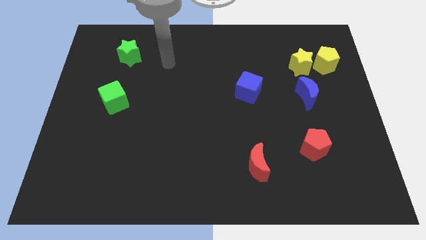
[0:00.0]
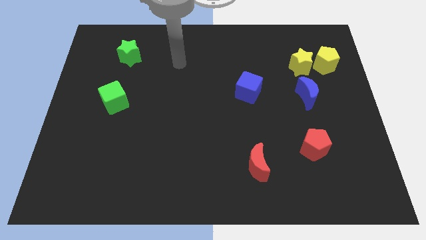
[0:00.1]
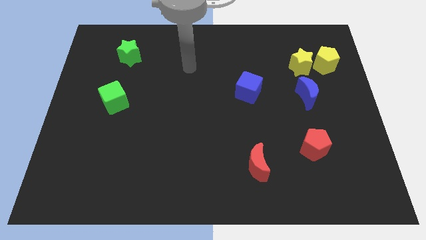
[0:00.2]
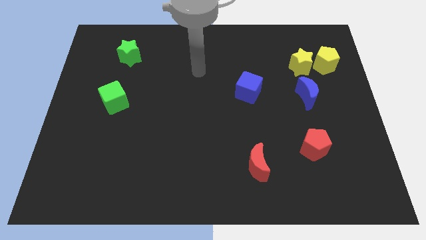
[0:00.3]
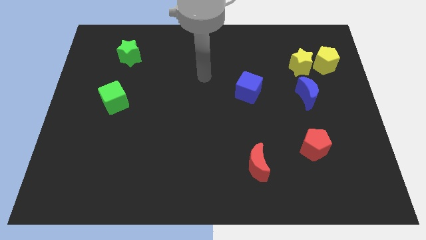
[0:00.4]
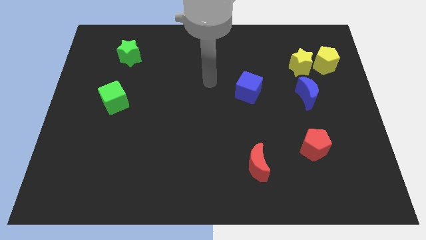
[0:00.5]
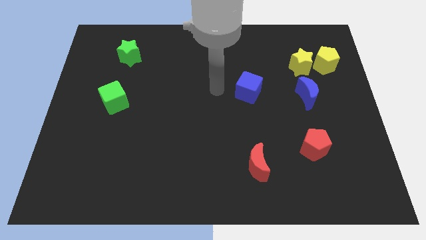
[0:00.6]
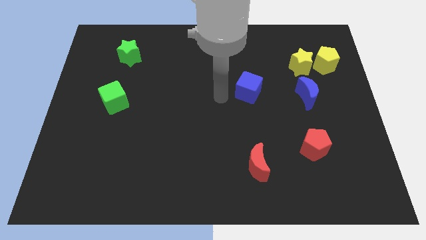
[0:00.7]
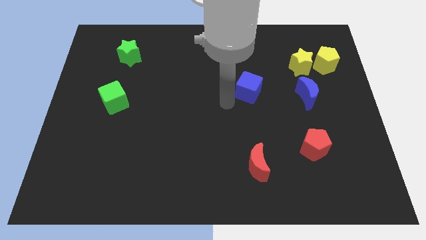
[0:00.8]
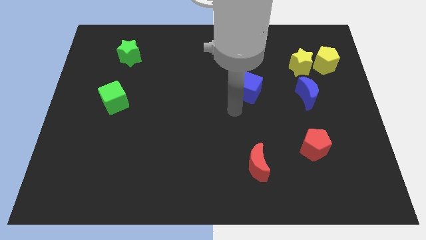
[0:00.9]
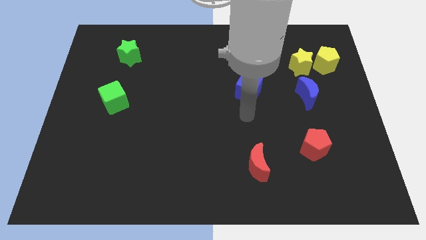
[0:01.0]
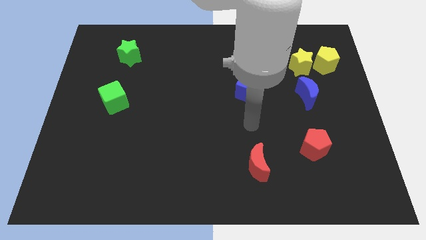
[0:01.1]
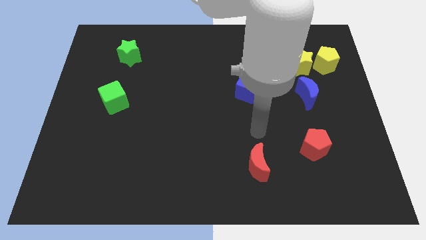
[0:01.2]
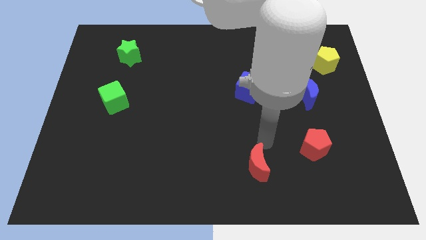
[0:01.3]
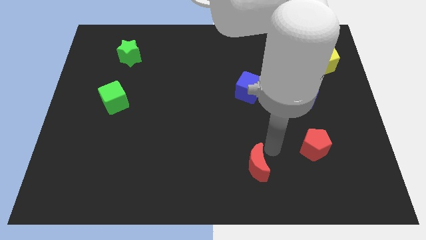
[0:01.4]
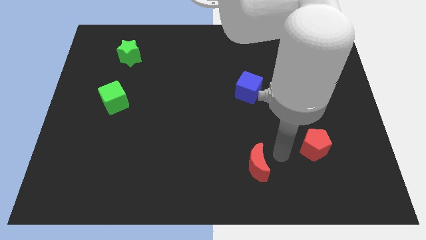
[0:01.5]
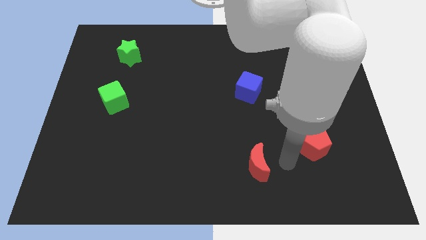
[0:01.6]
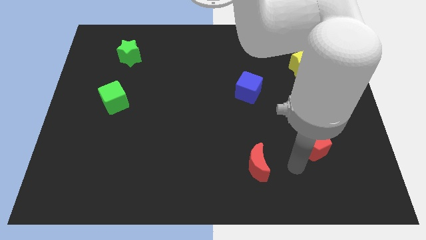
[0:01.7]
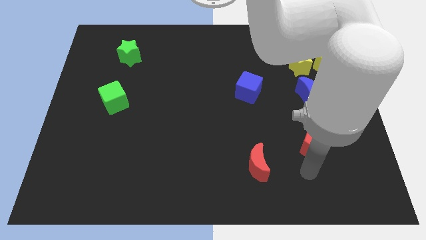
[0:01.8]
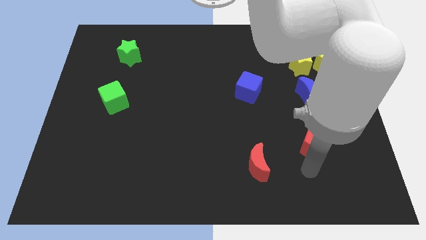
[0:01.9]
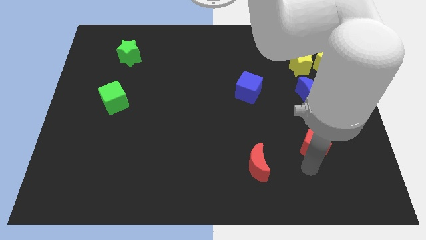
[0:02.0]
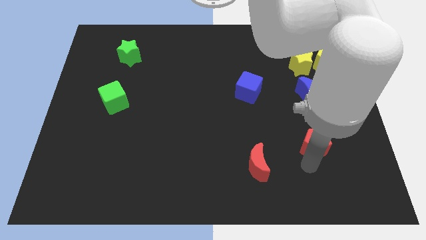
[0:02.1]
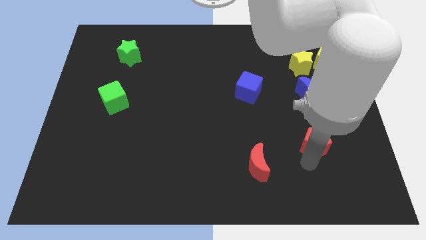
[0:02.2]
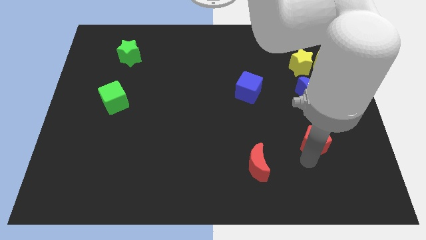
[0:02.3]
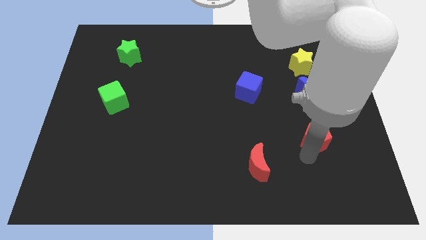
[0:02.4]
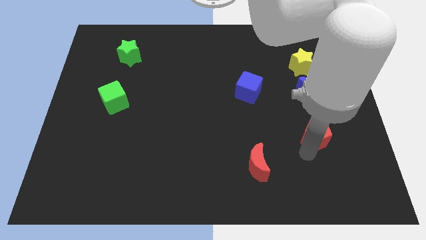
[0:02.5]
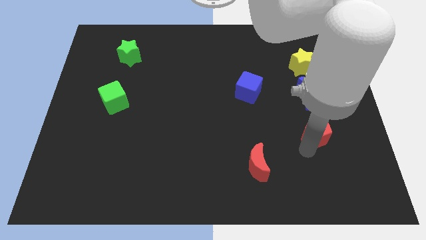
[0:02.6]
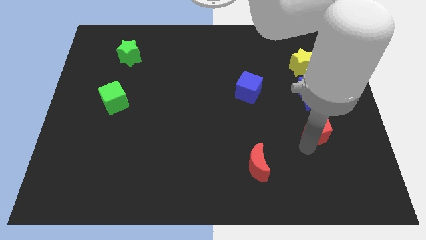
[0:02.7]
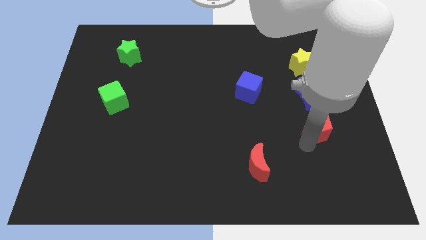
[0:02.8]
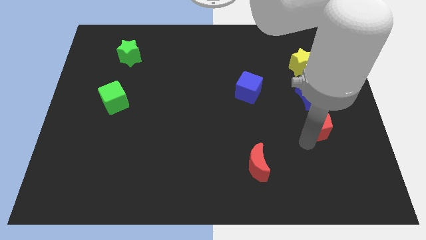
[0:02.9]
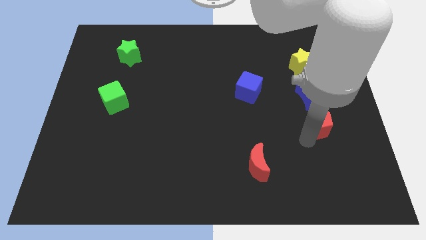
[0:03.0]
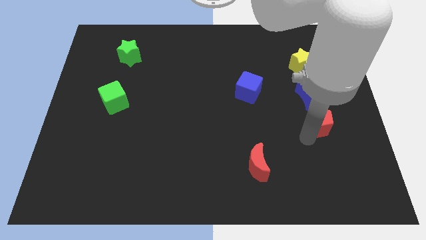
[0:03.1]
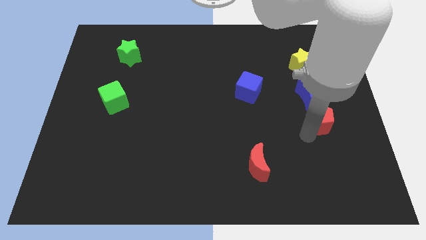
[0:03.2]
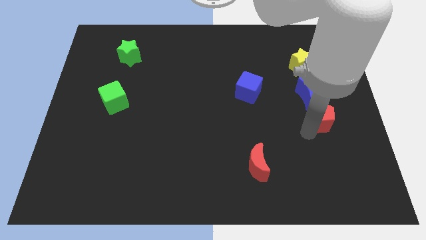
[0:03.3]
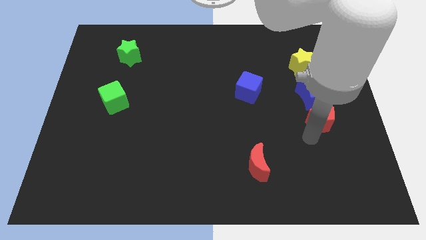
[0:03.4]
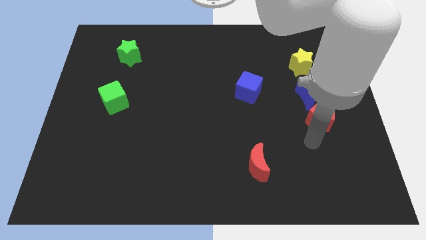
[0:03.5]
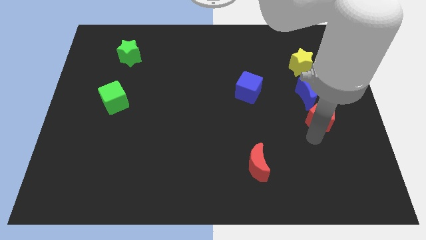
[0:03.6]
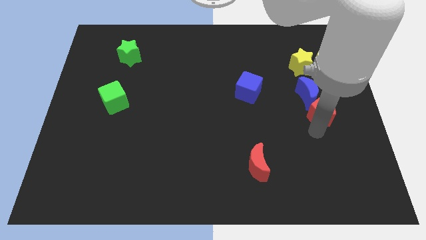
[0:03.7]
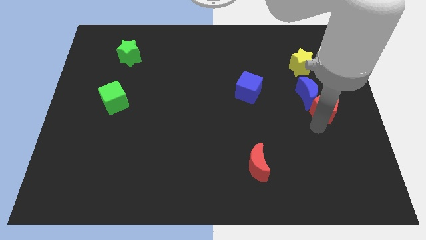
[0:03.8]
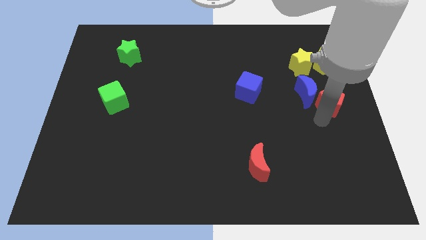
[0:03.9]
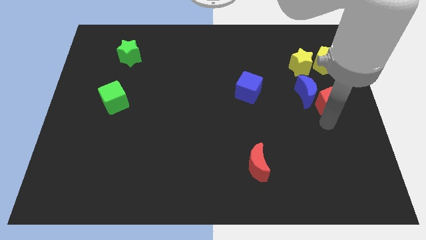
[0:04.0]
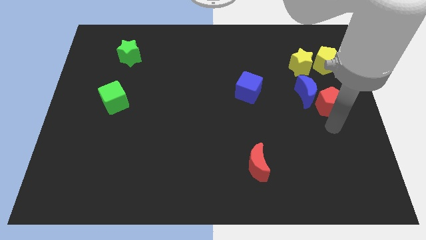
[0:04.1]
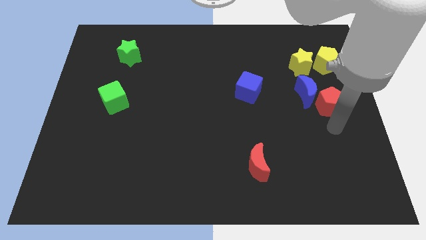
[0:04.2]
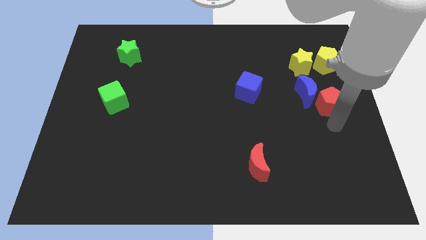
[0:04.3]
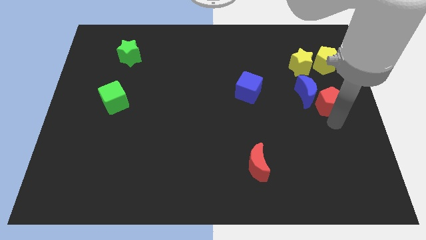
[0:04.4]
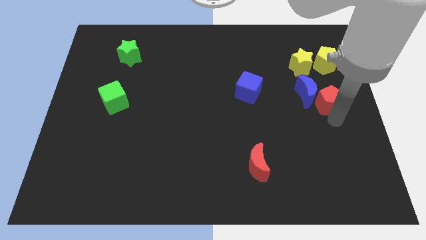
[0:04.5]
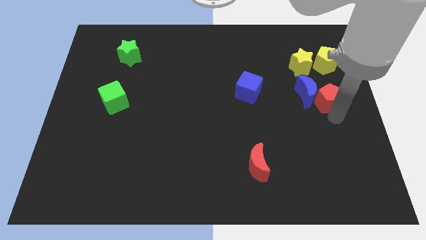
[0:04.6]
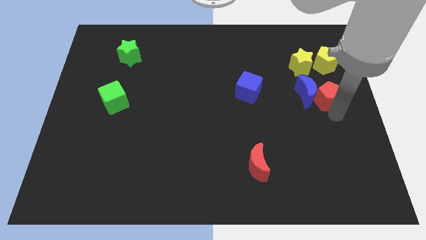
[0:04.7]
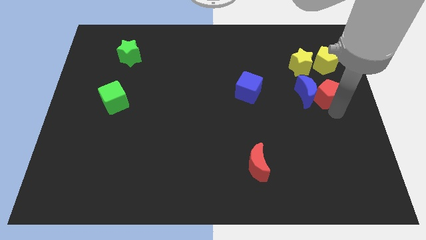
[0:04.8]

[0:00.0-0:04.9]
put the red pentagon to the bottom right of the yellow star

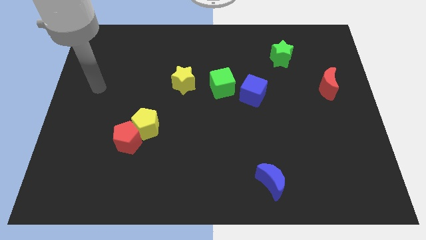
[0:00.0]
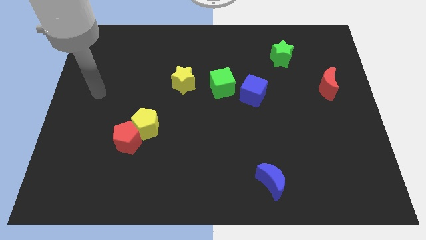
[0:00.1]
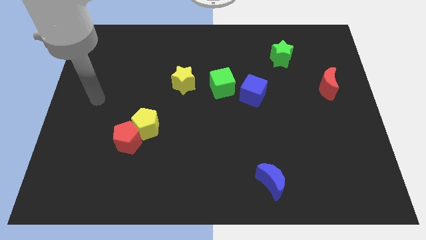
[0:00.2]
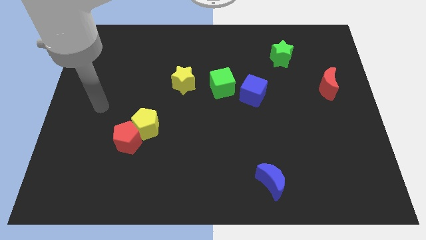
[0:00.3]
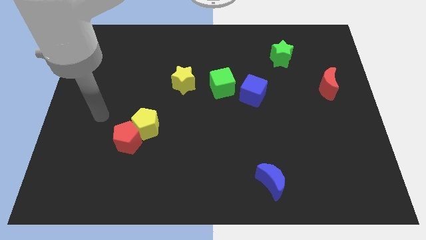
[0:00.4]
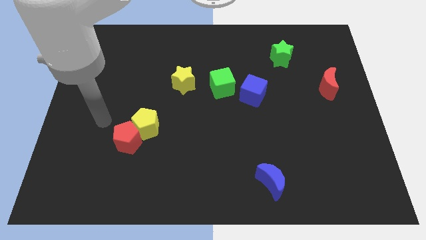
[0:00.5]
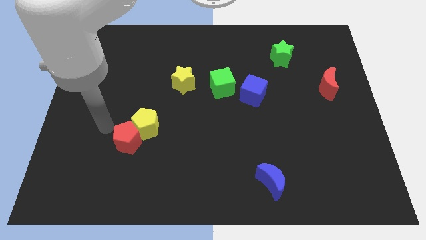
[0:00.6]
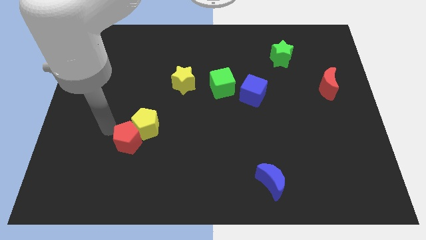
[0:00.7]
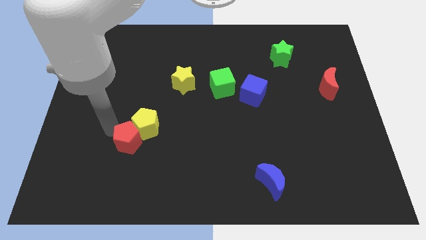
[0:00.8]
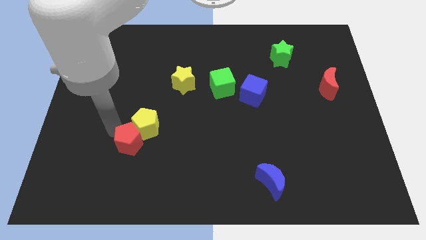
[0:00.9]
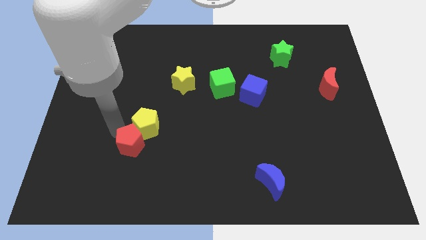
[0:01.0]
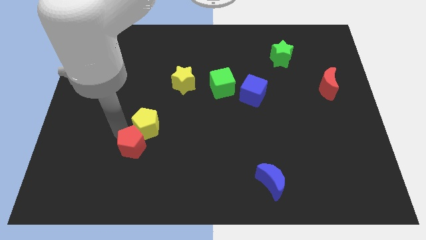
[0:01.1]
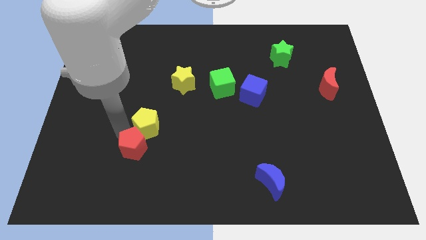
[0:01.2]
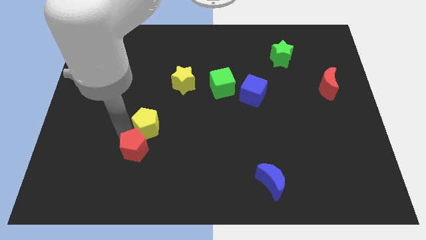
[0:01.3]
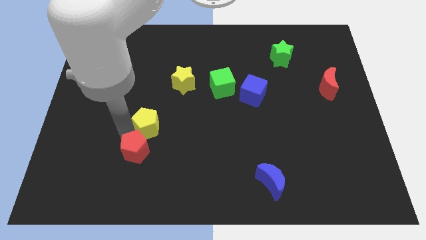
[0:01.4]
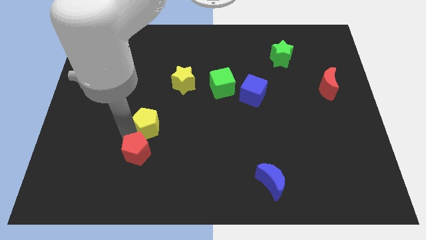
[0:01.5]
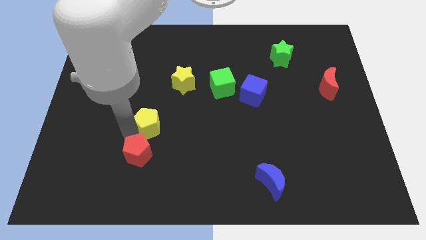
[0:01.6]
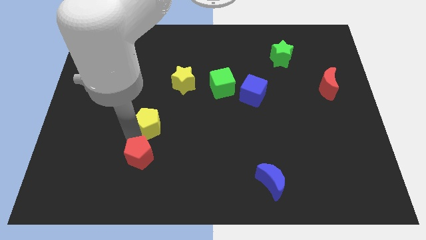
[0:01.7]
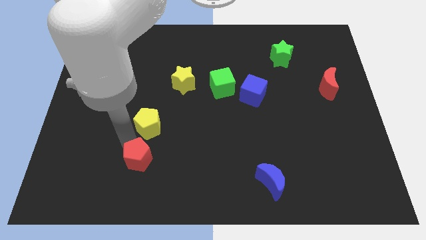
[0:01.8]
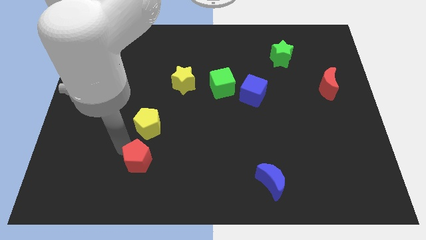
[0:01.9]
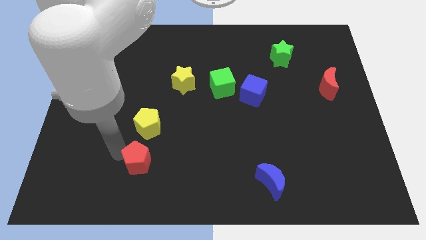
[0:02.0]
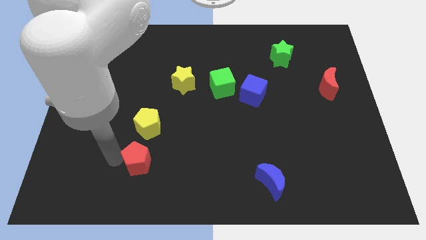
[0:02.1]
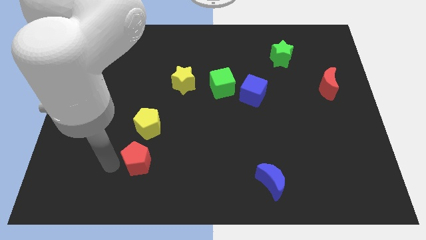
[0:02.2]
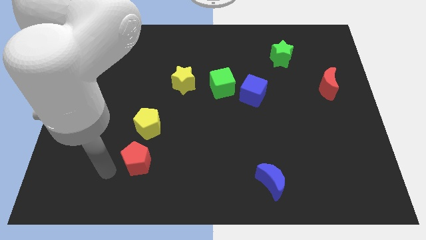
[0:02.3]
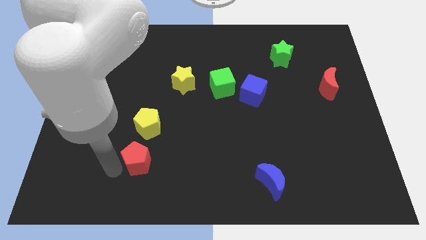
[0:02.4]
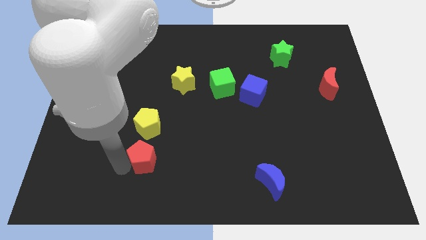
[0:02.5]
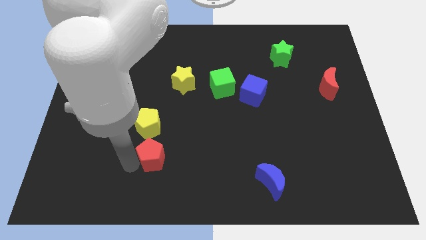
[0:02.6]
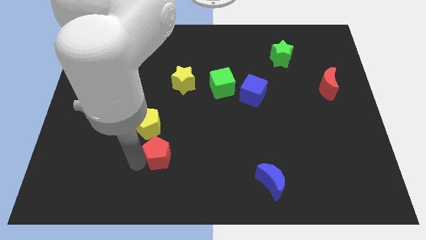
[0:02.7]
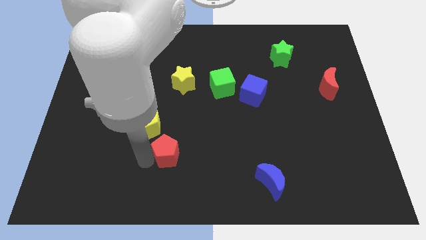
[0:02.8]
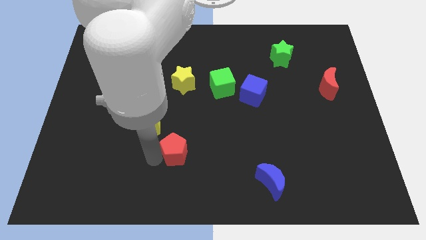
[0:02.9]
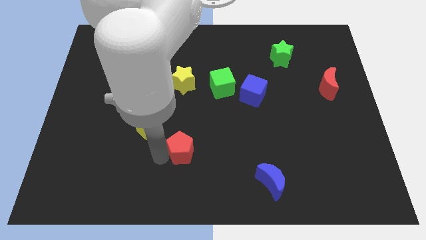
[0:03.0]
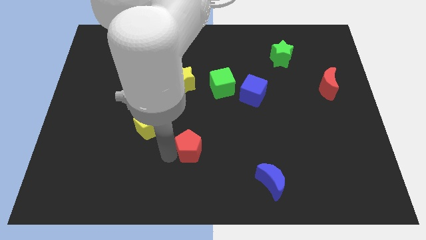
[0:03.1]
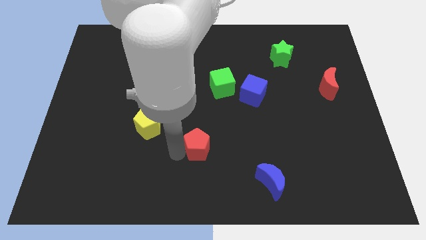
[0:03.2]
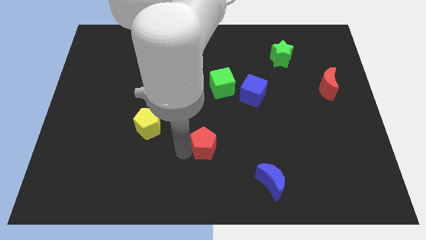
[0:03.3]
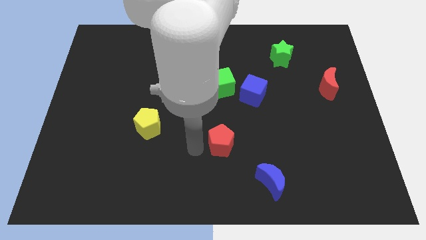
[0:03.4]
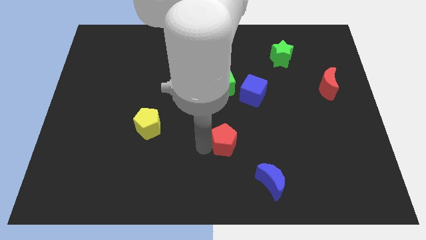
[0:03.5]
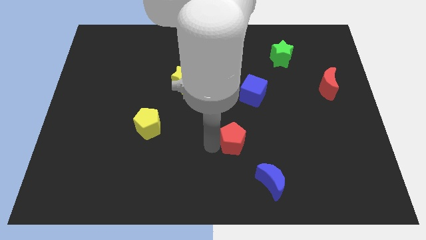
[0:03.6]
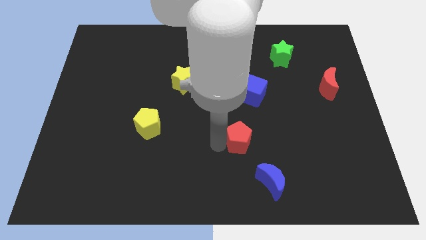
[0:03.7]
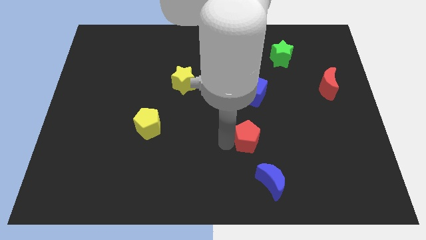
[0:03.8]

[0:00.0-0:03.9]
push the red pentagon to the top of the blue moon
